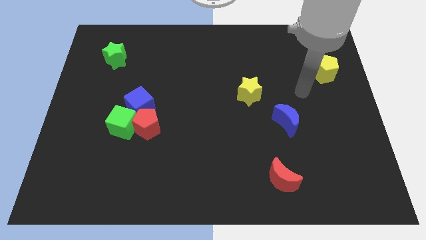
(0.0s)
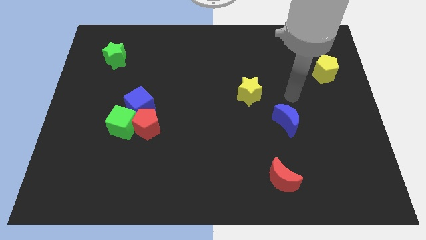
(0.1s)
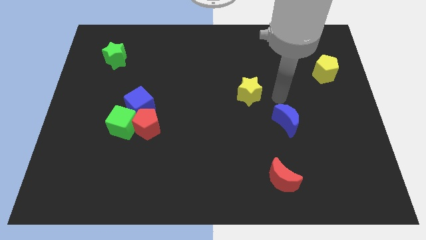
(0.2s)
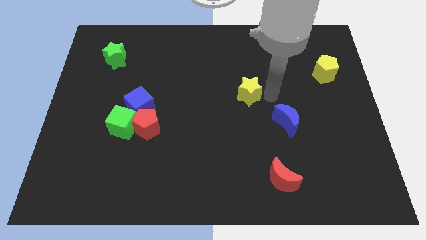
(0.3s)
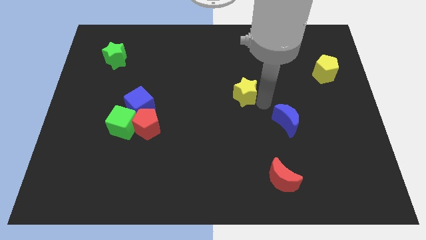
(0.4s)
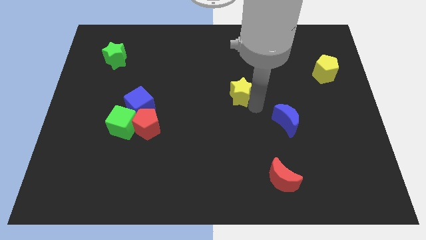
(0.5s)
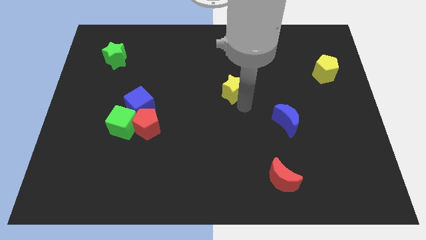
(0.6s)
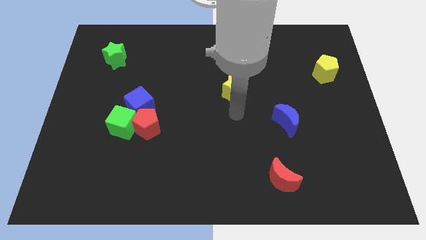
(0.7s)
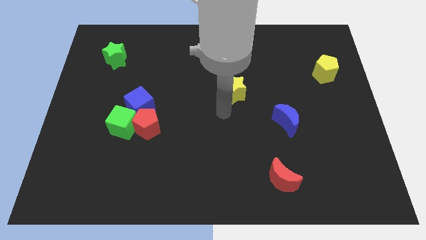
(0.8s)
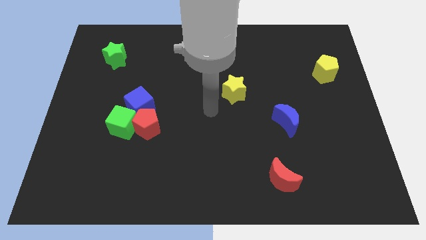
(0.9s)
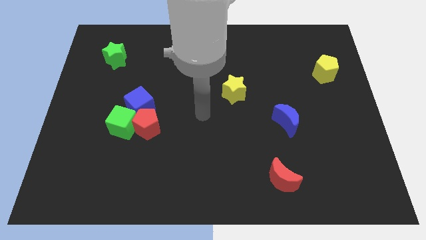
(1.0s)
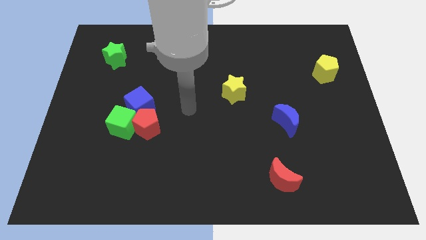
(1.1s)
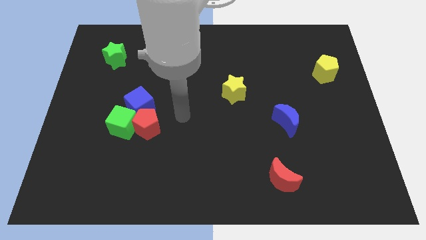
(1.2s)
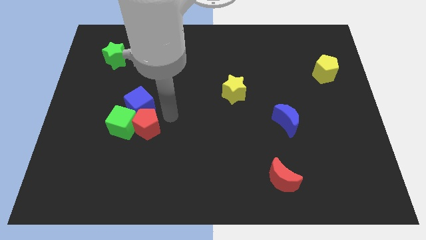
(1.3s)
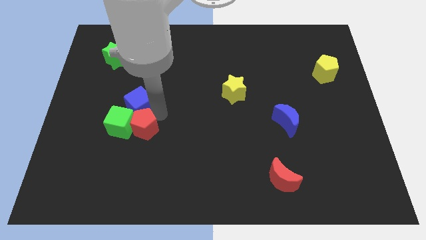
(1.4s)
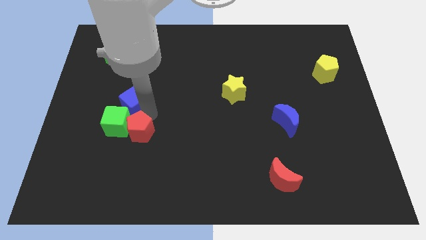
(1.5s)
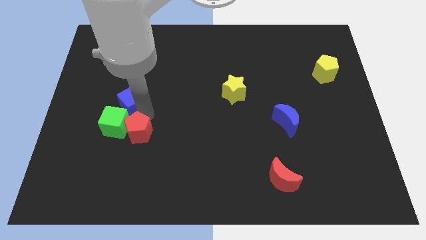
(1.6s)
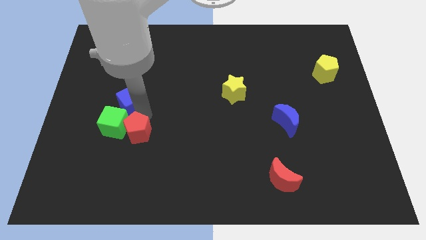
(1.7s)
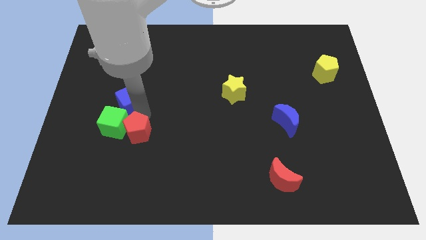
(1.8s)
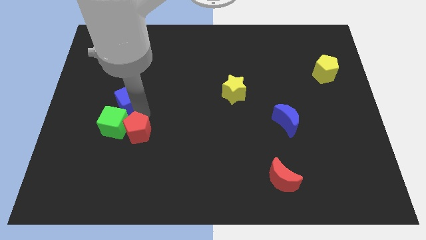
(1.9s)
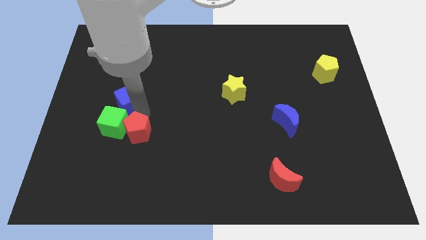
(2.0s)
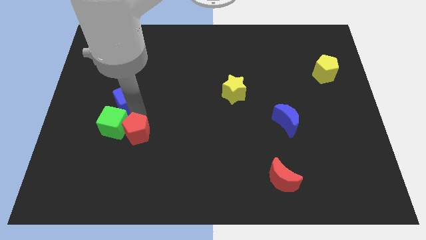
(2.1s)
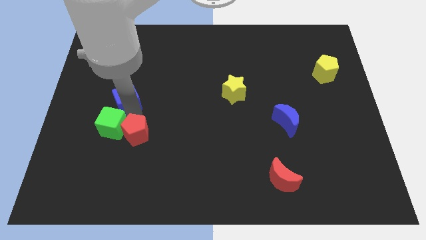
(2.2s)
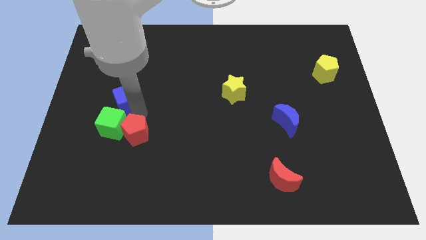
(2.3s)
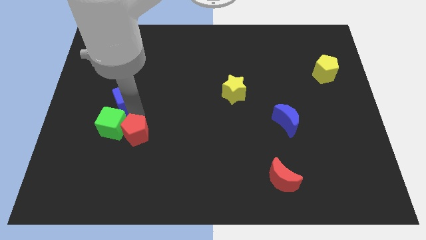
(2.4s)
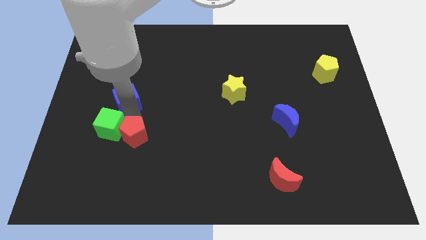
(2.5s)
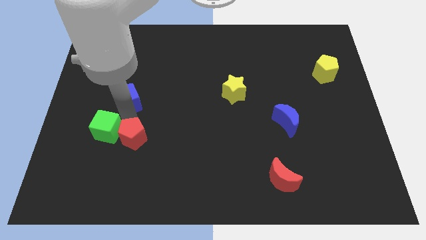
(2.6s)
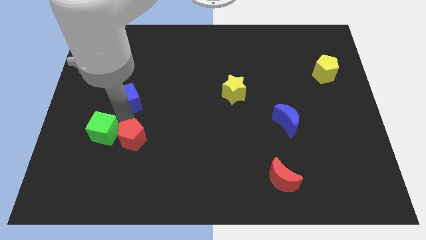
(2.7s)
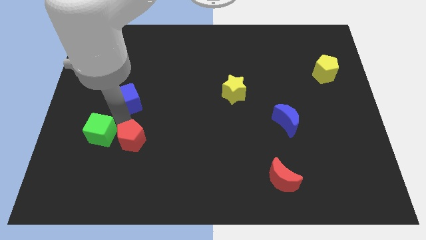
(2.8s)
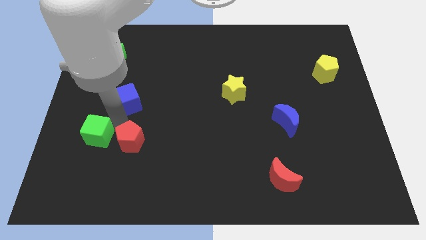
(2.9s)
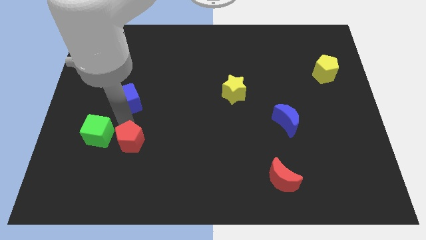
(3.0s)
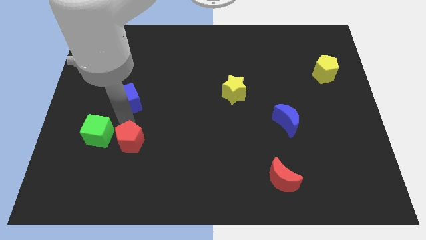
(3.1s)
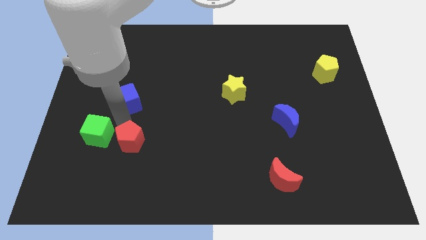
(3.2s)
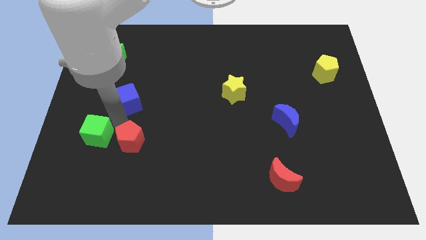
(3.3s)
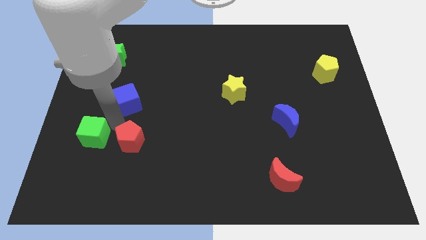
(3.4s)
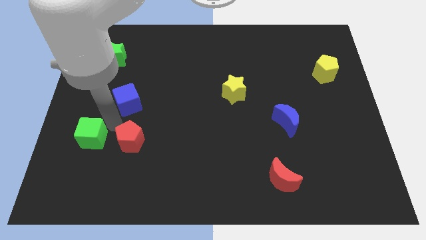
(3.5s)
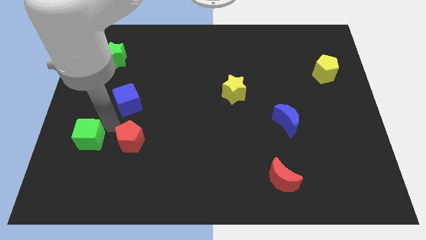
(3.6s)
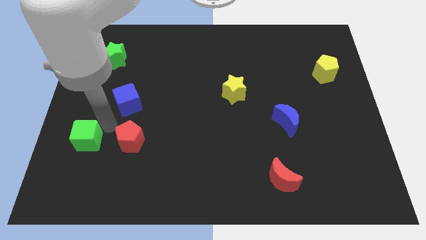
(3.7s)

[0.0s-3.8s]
separate the green cube from the red pentagon and blue cube

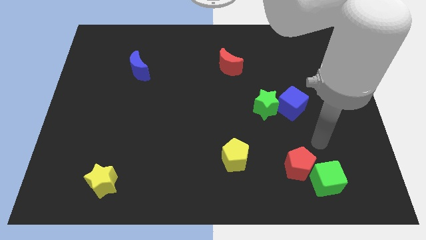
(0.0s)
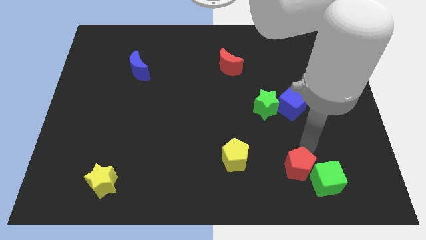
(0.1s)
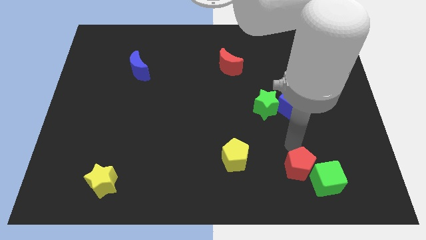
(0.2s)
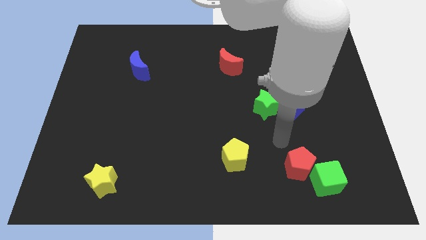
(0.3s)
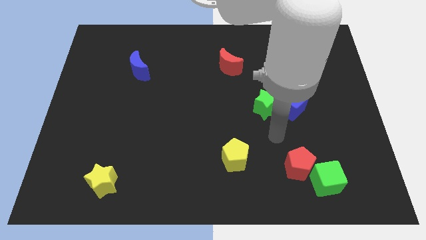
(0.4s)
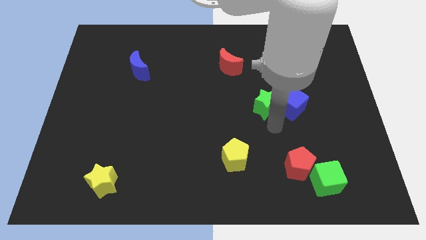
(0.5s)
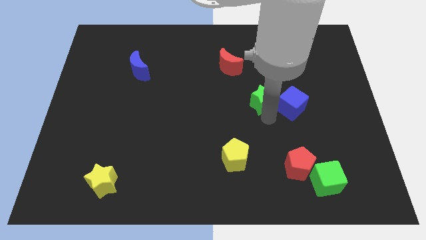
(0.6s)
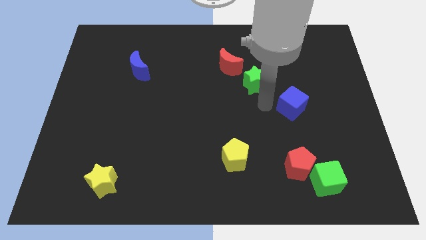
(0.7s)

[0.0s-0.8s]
separate the blue cube from the green star

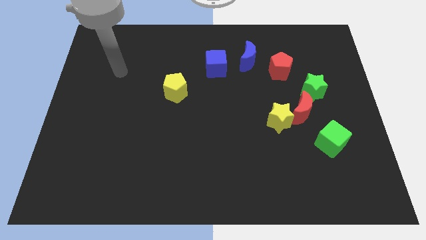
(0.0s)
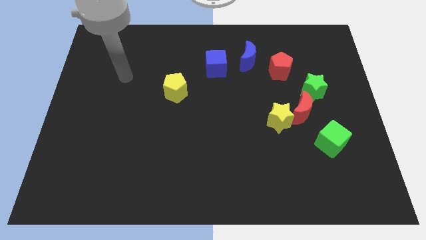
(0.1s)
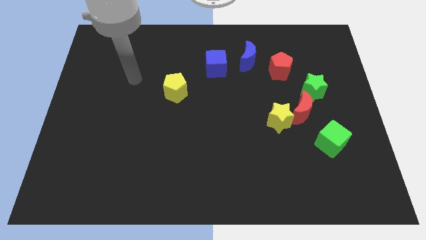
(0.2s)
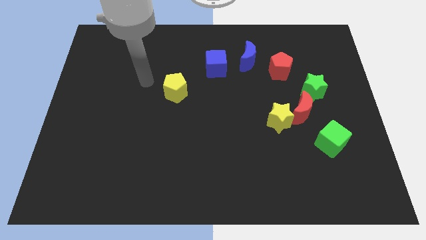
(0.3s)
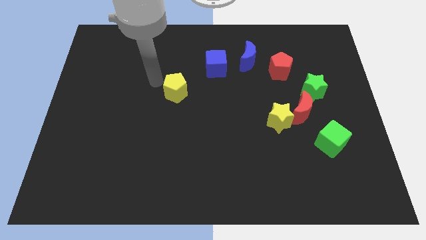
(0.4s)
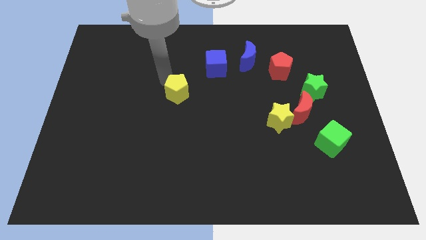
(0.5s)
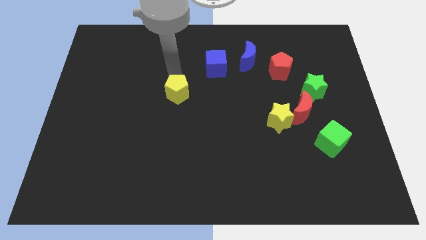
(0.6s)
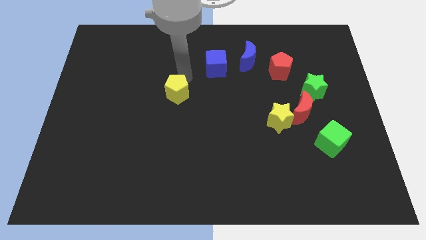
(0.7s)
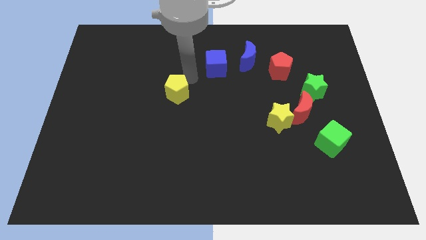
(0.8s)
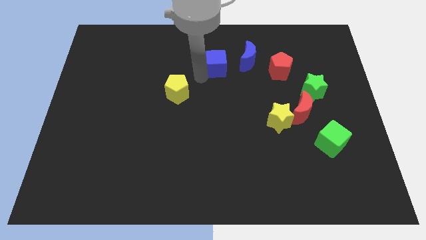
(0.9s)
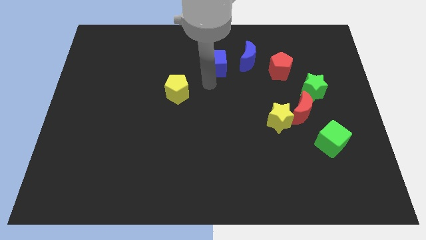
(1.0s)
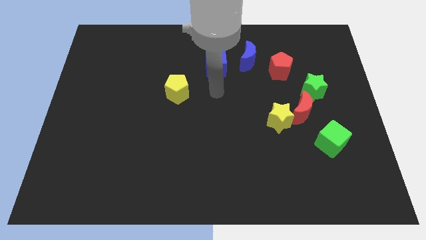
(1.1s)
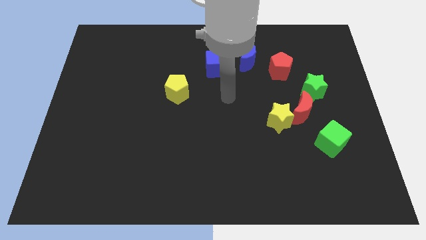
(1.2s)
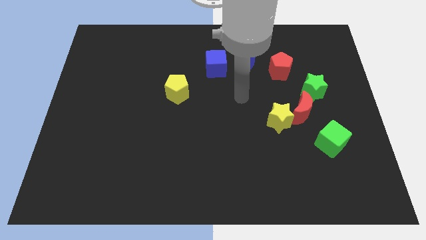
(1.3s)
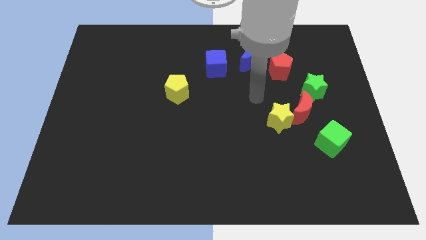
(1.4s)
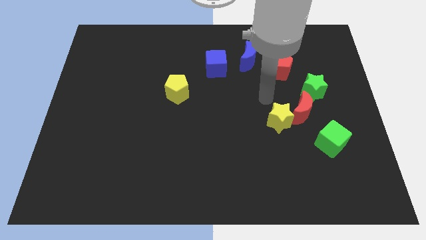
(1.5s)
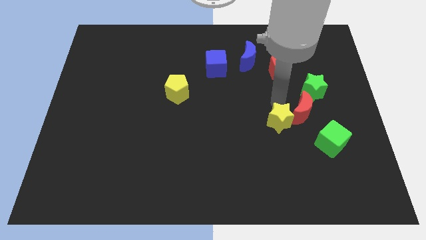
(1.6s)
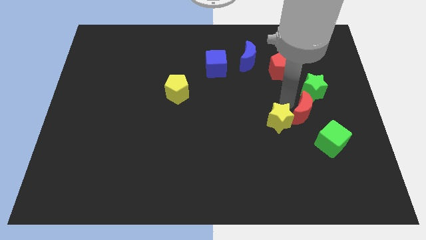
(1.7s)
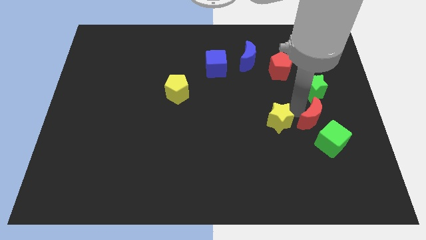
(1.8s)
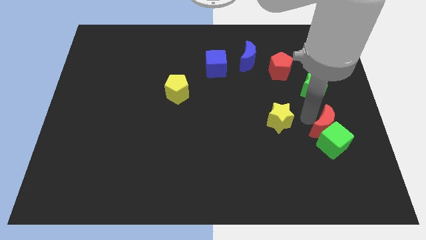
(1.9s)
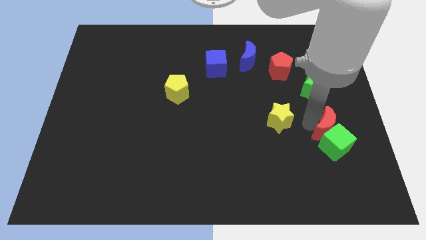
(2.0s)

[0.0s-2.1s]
move the yellow star away from the red moon

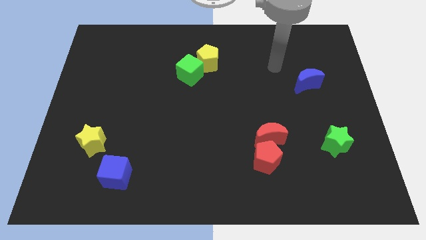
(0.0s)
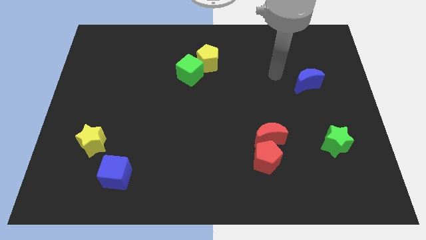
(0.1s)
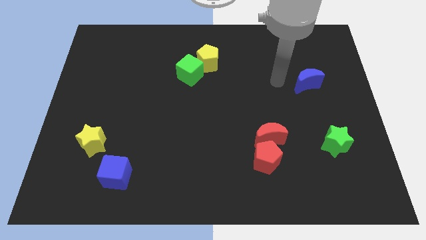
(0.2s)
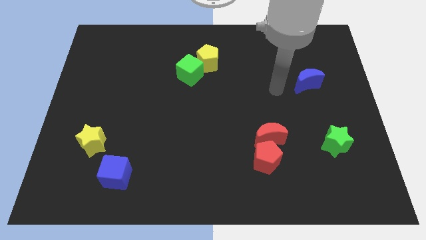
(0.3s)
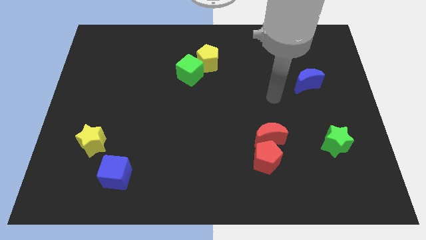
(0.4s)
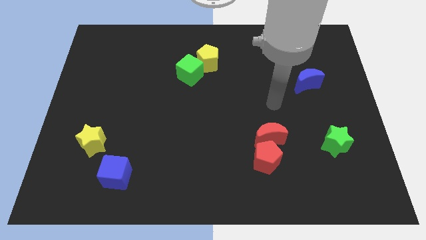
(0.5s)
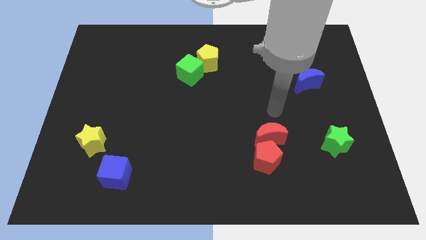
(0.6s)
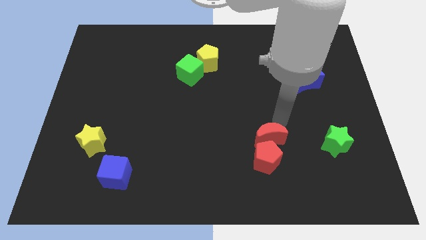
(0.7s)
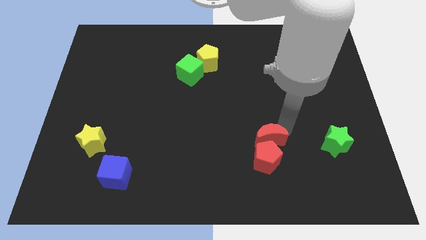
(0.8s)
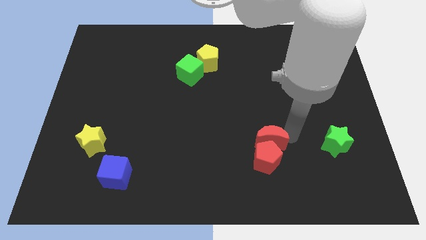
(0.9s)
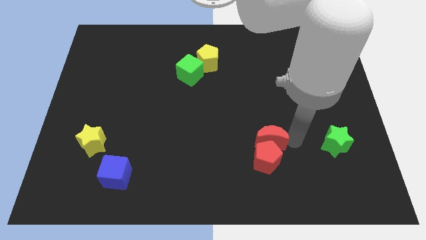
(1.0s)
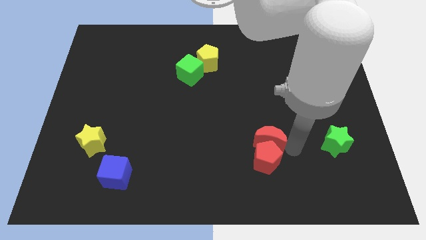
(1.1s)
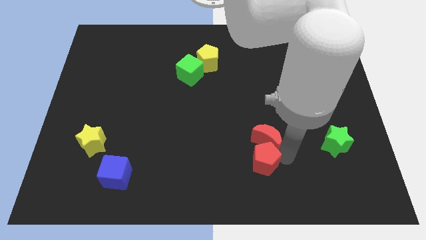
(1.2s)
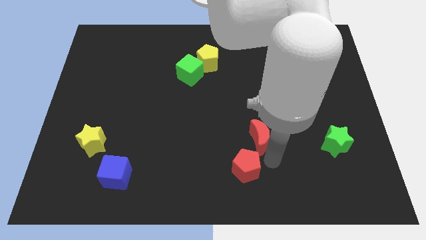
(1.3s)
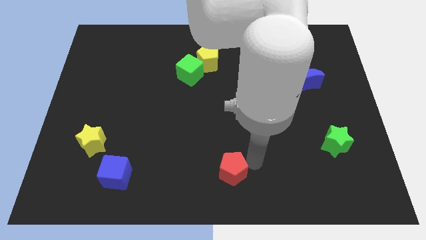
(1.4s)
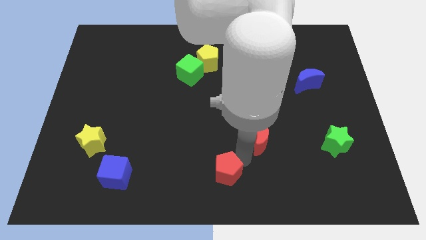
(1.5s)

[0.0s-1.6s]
separate the red moon from the red pentagon

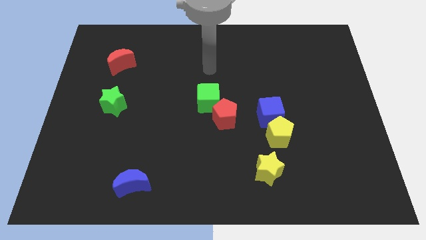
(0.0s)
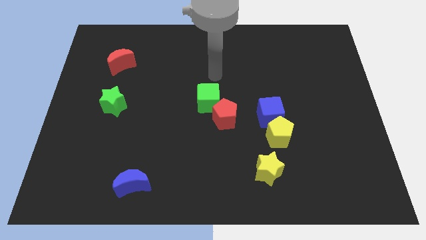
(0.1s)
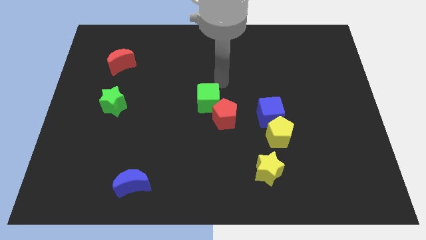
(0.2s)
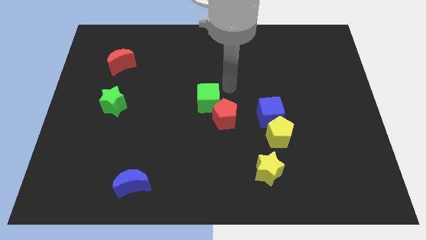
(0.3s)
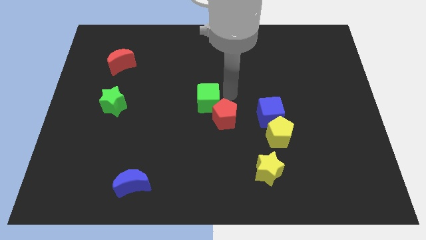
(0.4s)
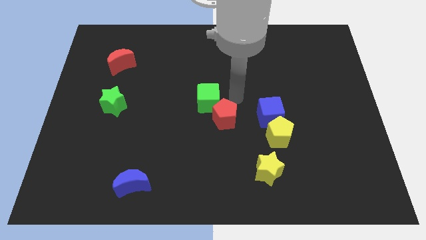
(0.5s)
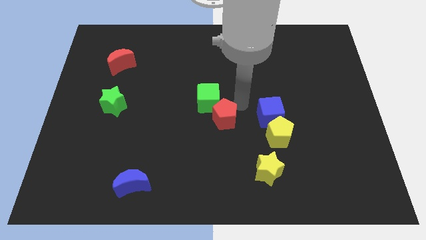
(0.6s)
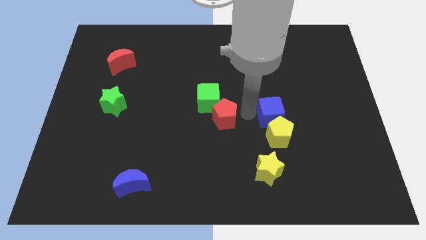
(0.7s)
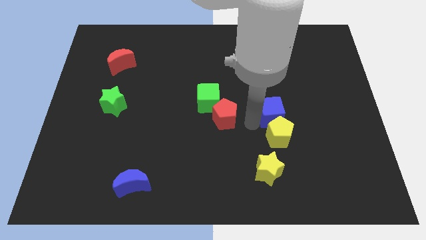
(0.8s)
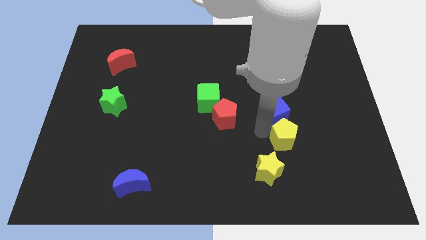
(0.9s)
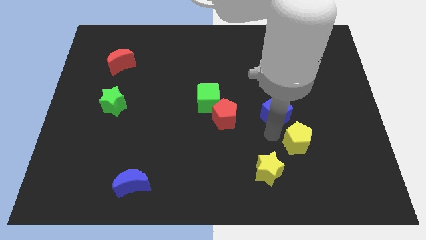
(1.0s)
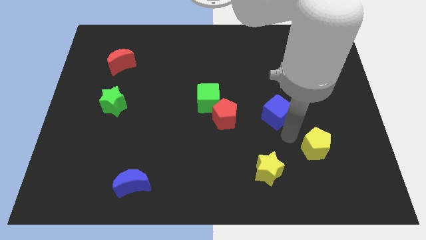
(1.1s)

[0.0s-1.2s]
move the blue cube away from the yellow pentagon
